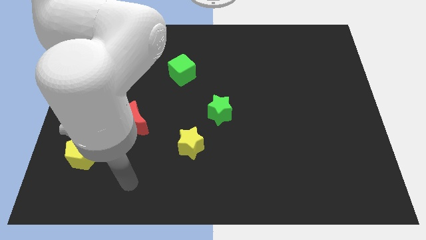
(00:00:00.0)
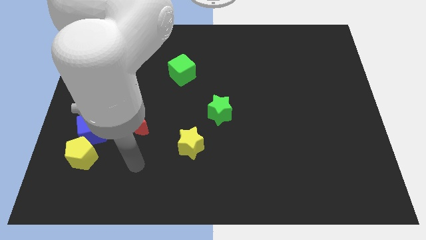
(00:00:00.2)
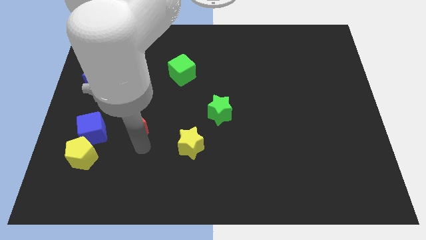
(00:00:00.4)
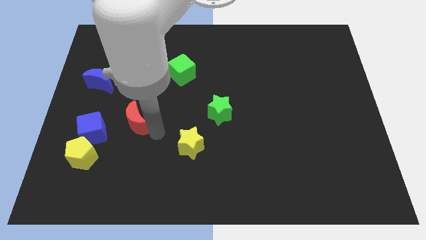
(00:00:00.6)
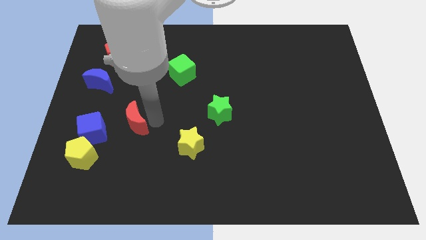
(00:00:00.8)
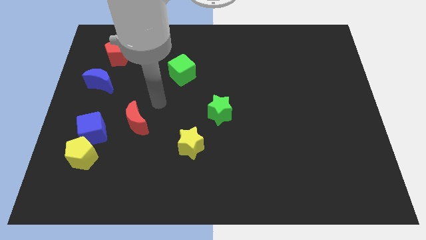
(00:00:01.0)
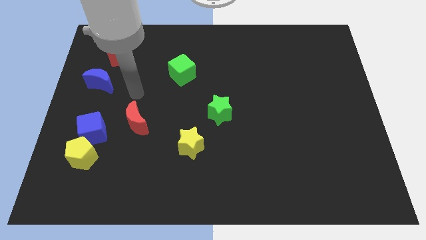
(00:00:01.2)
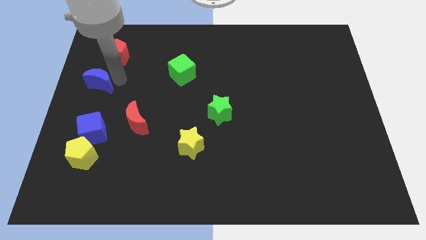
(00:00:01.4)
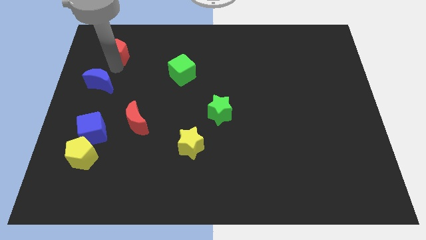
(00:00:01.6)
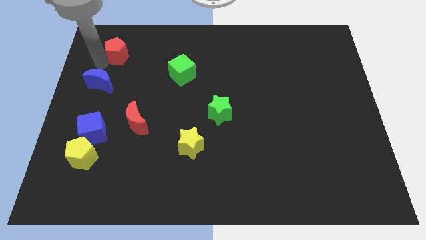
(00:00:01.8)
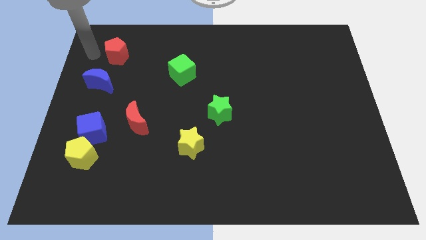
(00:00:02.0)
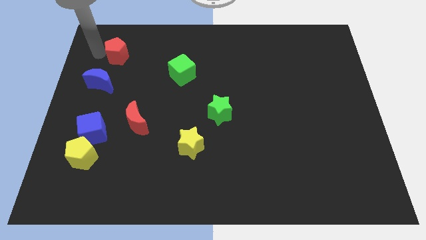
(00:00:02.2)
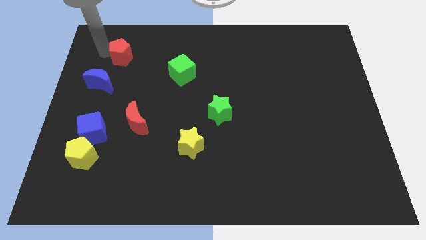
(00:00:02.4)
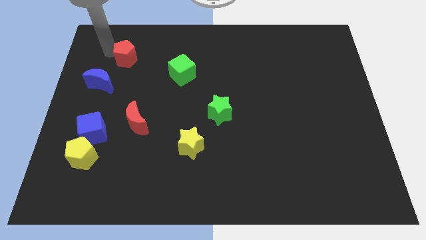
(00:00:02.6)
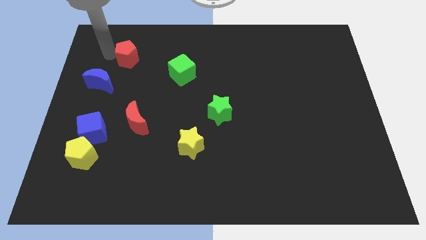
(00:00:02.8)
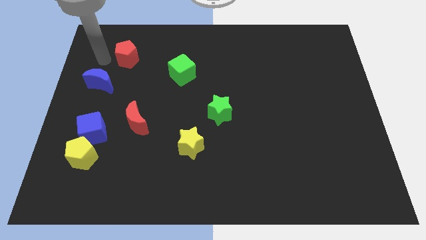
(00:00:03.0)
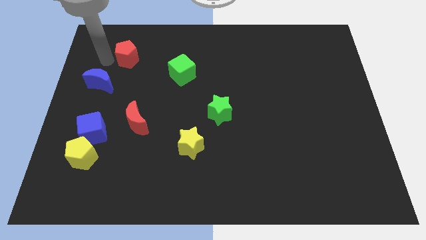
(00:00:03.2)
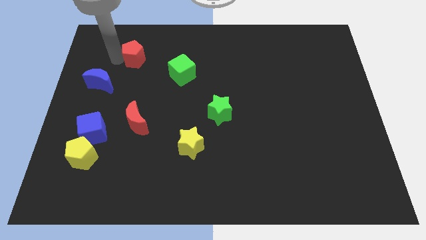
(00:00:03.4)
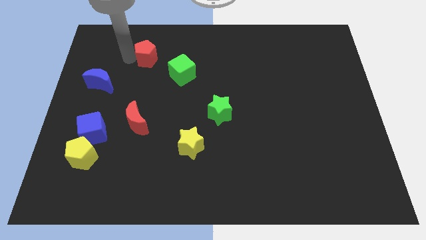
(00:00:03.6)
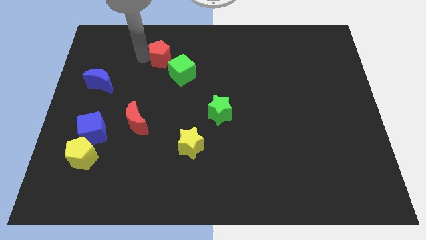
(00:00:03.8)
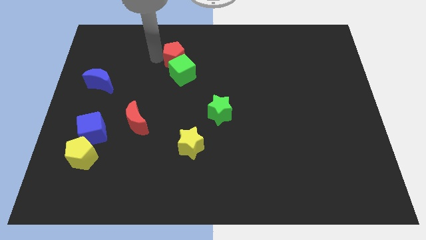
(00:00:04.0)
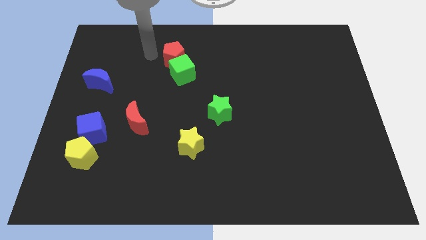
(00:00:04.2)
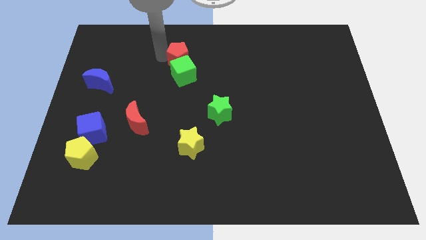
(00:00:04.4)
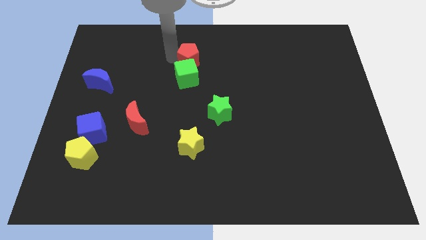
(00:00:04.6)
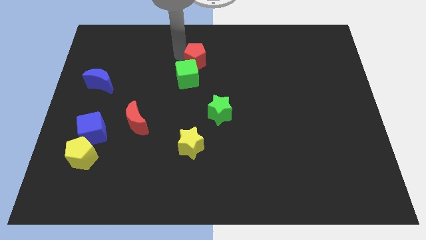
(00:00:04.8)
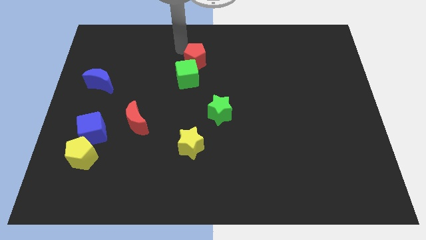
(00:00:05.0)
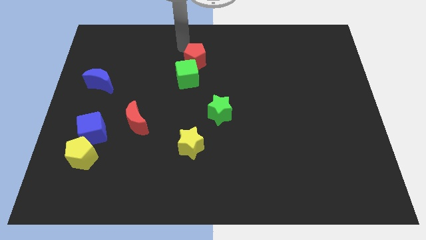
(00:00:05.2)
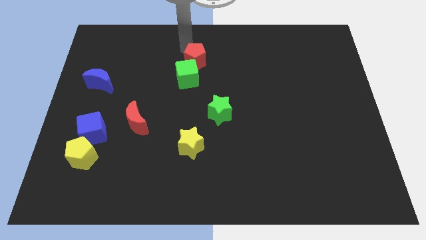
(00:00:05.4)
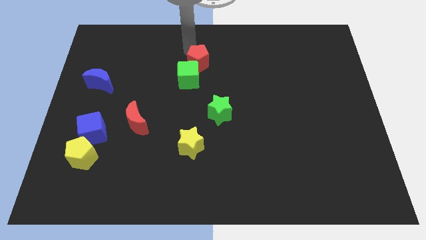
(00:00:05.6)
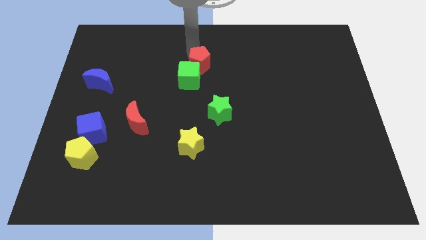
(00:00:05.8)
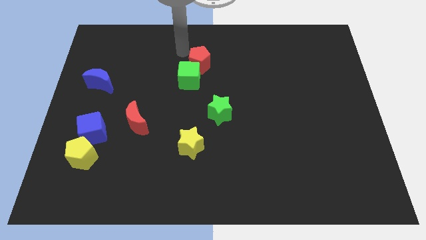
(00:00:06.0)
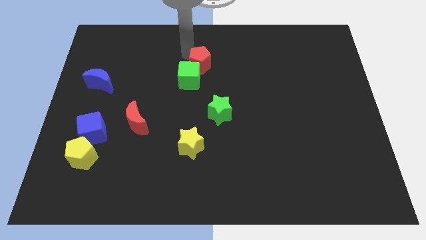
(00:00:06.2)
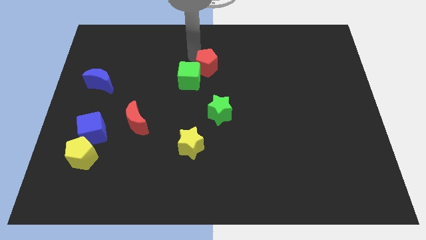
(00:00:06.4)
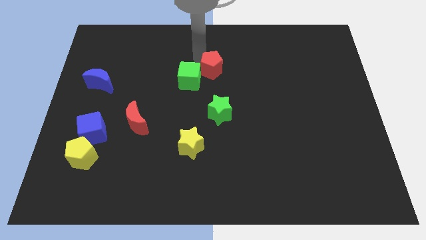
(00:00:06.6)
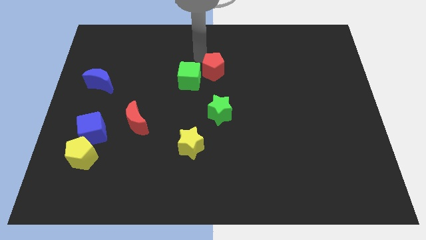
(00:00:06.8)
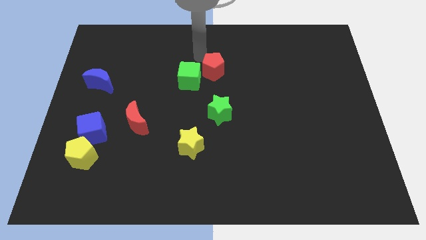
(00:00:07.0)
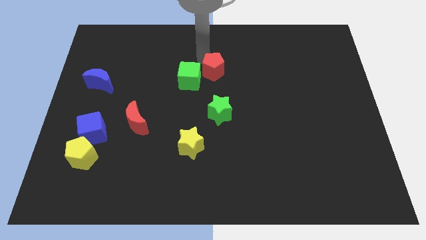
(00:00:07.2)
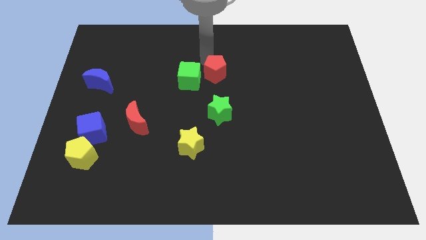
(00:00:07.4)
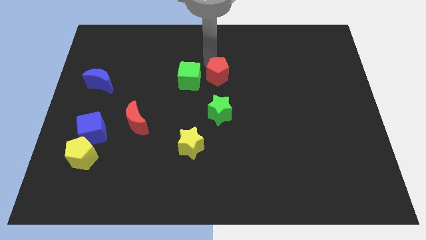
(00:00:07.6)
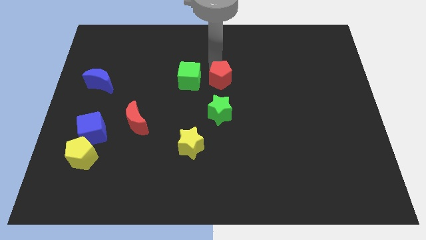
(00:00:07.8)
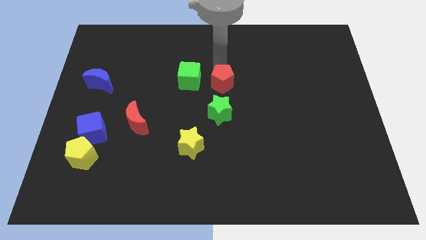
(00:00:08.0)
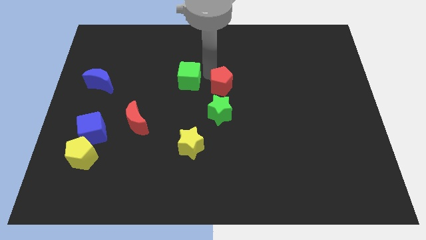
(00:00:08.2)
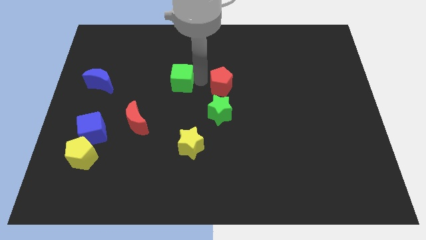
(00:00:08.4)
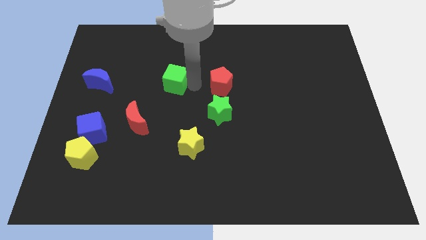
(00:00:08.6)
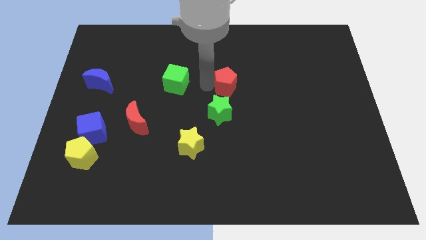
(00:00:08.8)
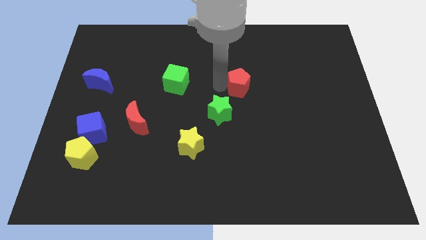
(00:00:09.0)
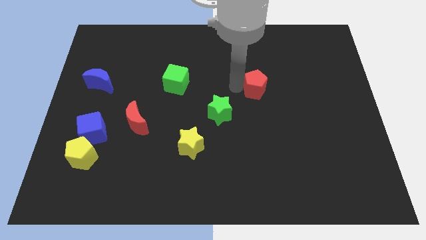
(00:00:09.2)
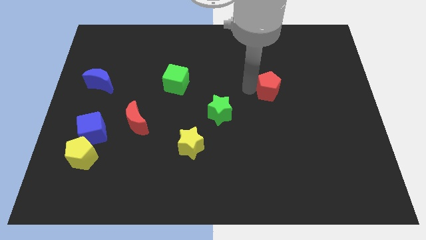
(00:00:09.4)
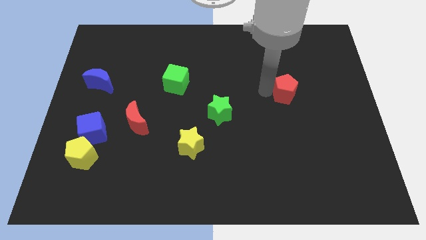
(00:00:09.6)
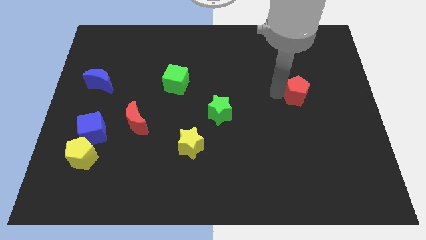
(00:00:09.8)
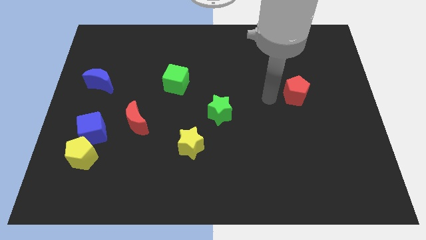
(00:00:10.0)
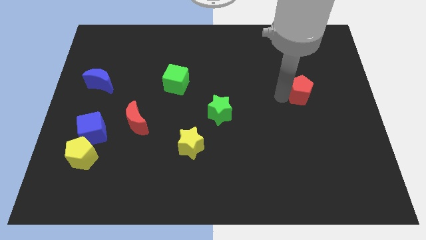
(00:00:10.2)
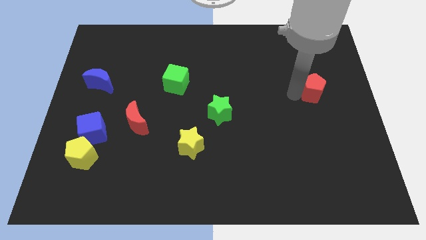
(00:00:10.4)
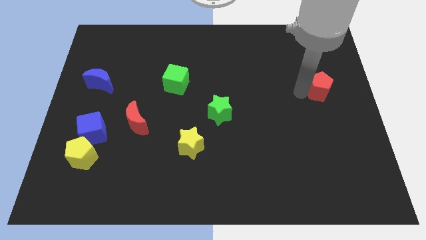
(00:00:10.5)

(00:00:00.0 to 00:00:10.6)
put the red pentagon to the right side of the board

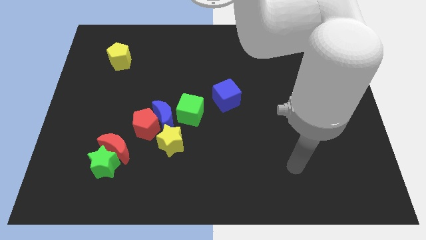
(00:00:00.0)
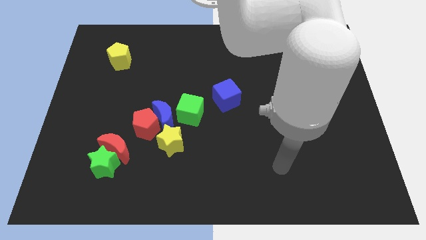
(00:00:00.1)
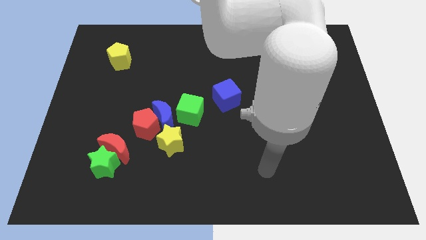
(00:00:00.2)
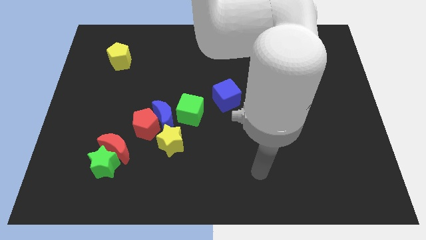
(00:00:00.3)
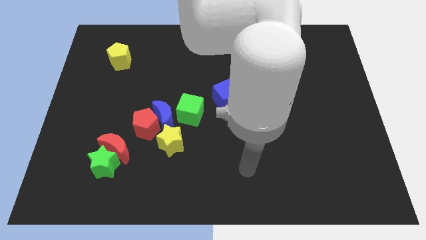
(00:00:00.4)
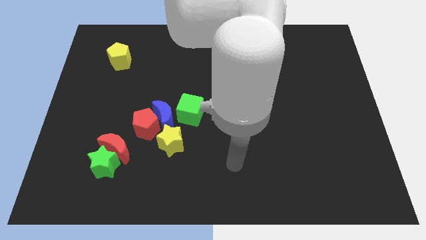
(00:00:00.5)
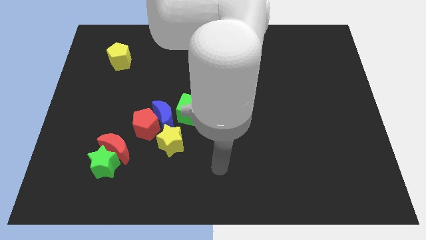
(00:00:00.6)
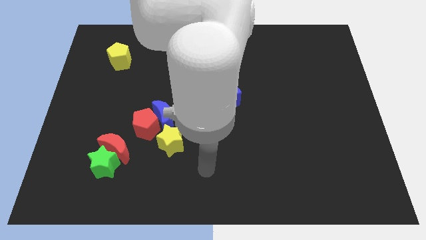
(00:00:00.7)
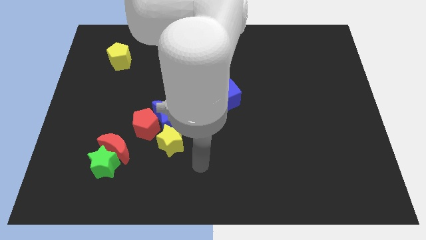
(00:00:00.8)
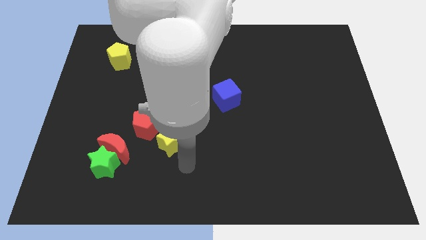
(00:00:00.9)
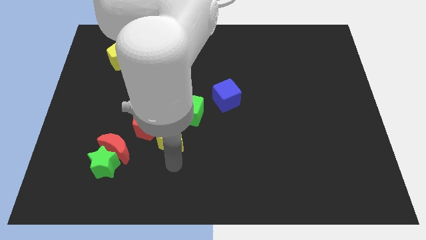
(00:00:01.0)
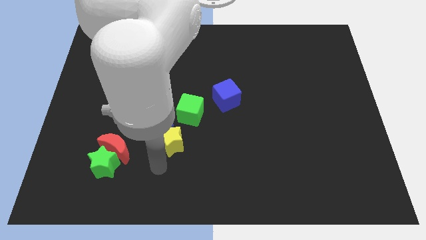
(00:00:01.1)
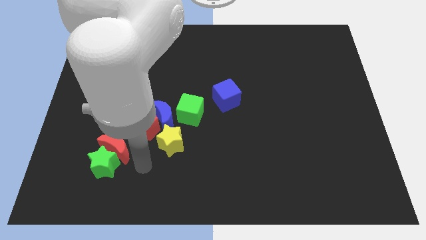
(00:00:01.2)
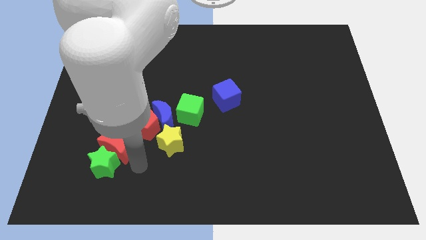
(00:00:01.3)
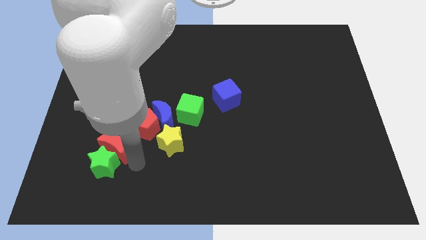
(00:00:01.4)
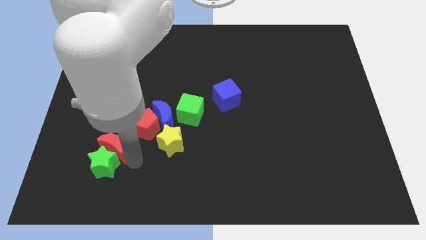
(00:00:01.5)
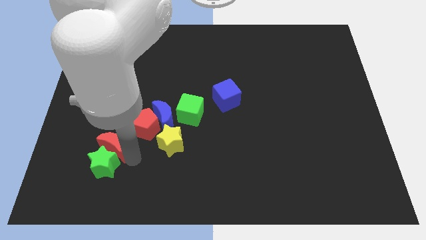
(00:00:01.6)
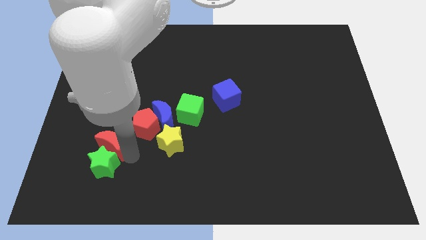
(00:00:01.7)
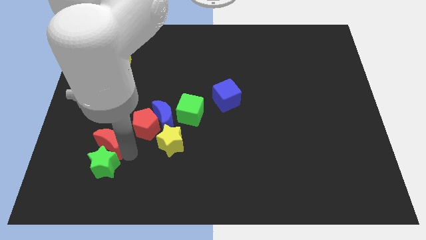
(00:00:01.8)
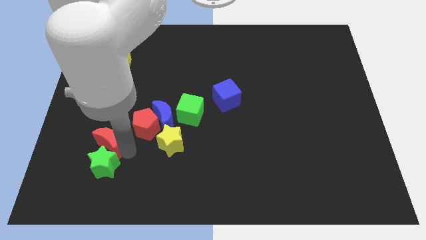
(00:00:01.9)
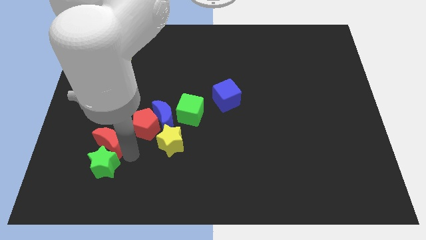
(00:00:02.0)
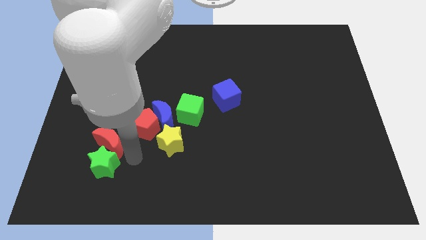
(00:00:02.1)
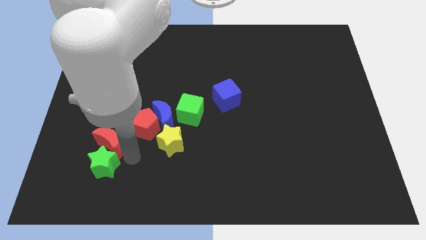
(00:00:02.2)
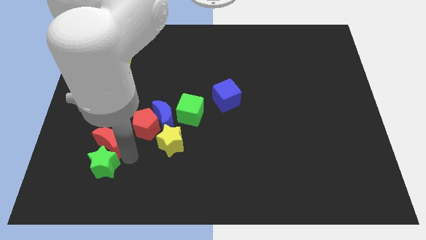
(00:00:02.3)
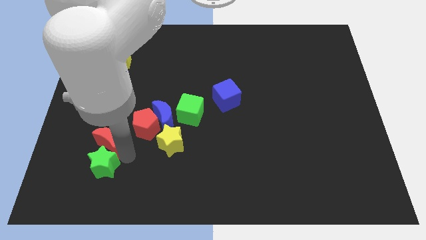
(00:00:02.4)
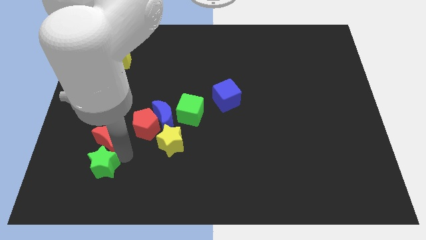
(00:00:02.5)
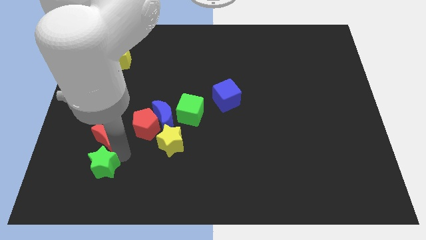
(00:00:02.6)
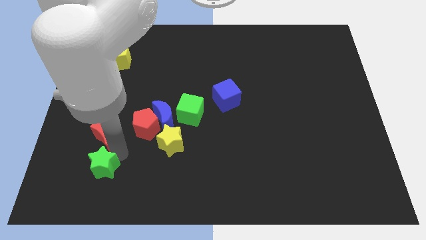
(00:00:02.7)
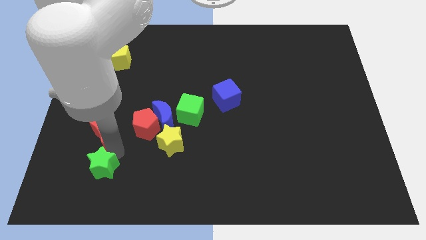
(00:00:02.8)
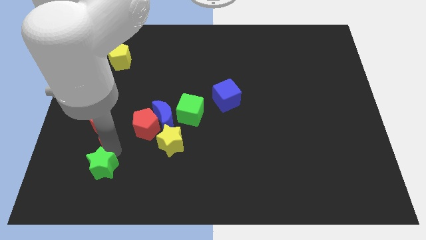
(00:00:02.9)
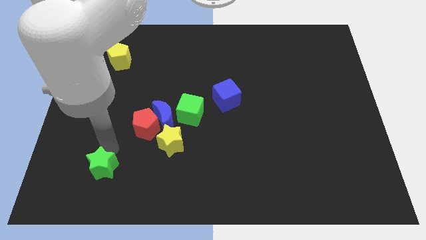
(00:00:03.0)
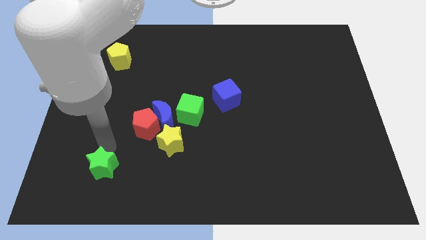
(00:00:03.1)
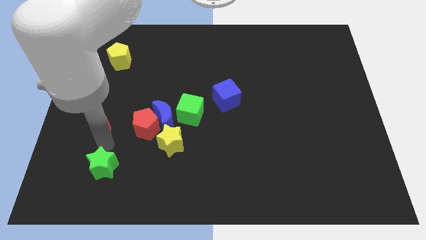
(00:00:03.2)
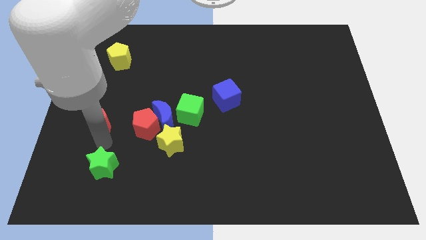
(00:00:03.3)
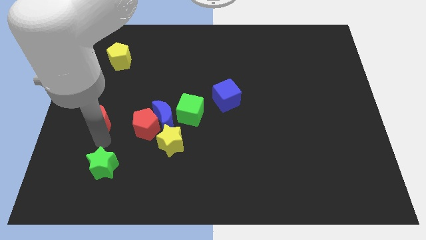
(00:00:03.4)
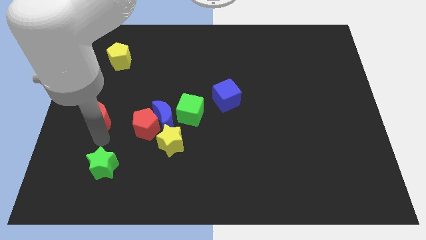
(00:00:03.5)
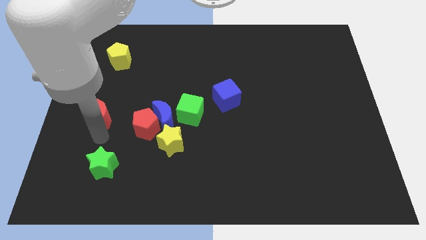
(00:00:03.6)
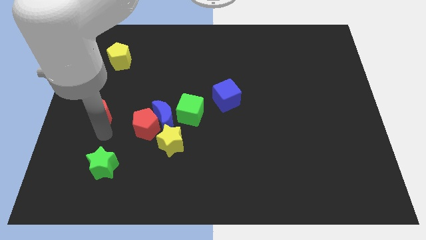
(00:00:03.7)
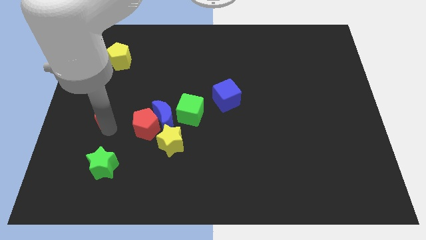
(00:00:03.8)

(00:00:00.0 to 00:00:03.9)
put the red moon to the left side
